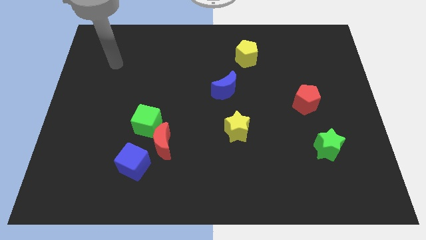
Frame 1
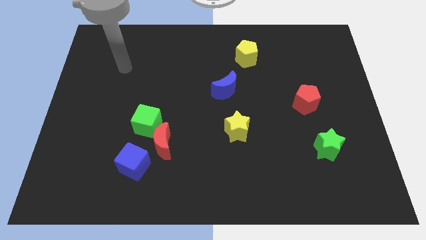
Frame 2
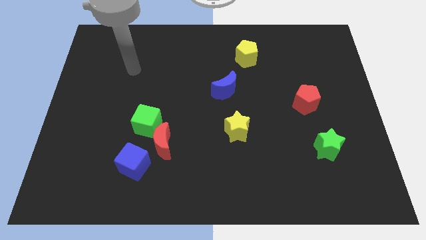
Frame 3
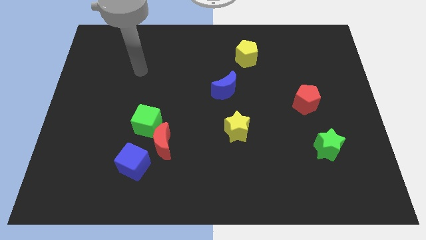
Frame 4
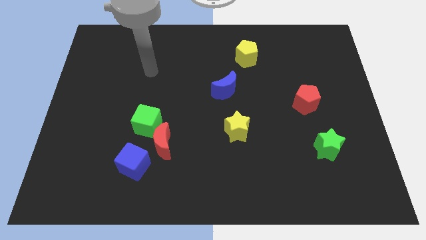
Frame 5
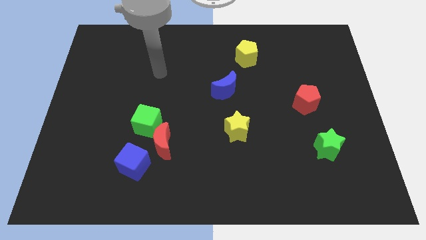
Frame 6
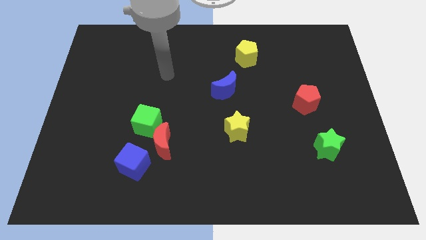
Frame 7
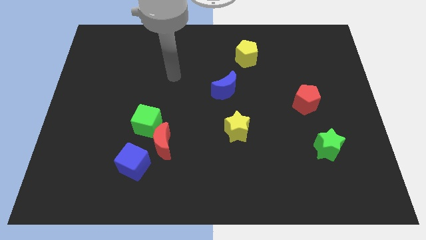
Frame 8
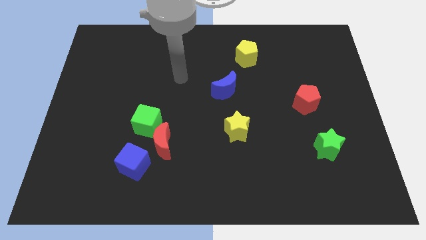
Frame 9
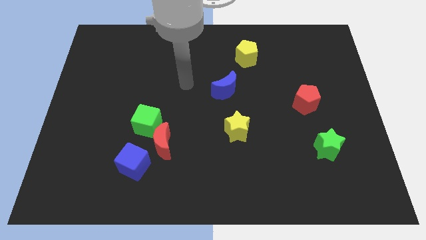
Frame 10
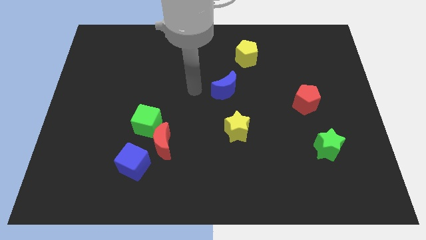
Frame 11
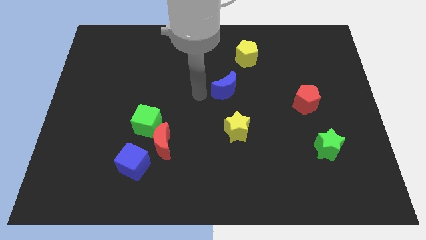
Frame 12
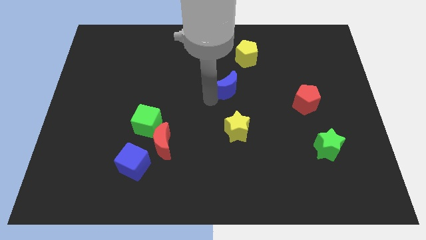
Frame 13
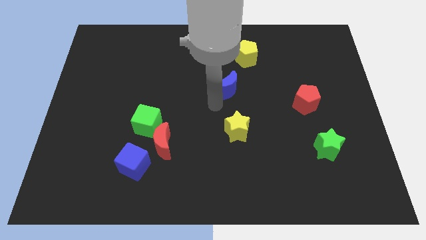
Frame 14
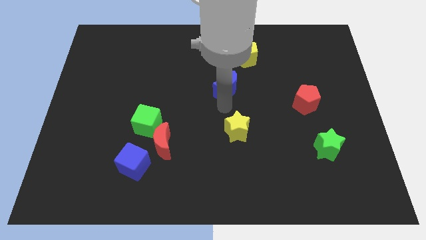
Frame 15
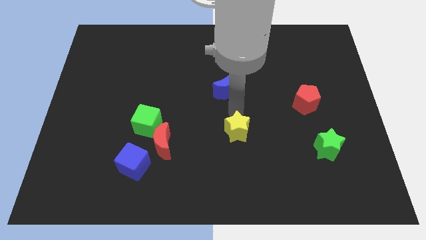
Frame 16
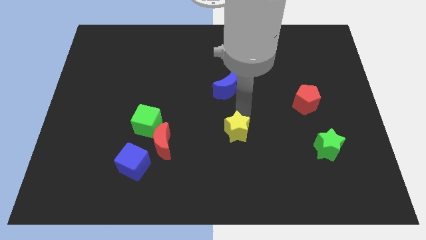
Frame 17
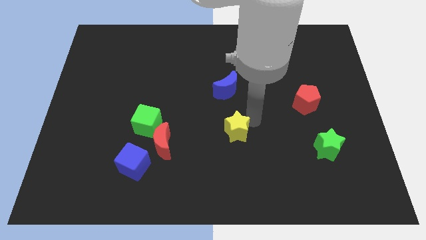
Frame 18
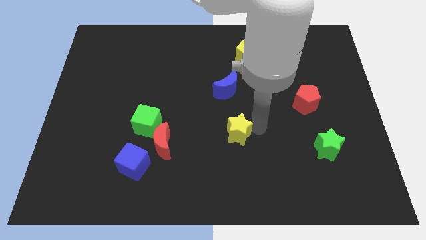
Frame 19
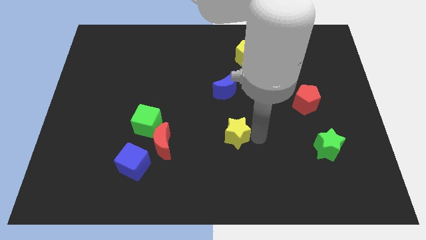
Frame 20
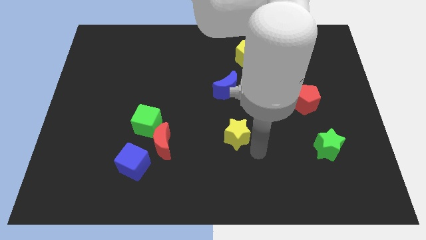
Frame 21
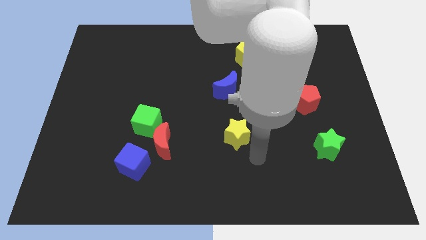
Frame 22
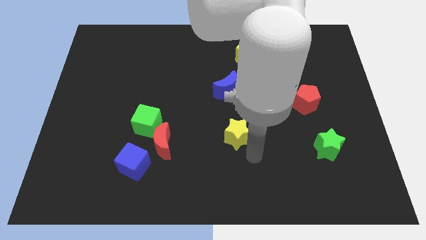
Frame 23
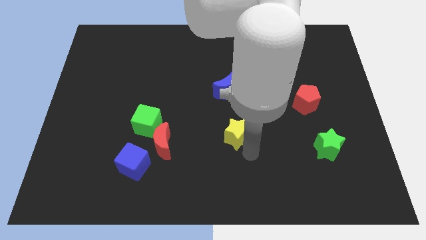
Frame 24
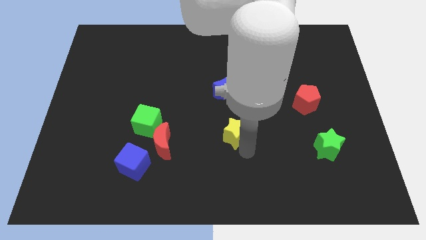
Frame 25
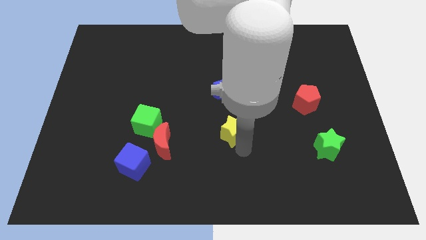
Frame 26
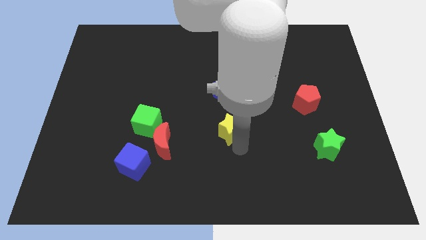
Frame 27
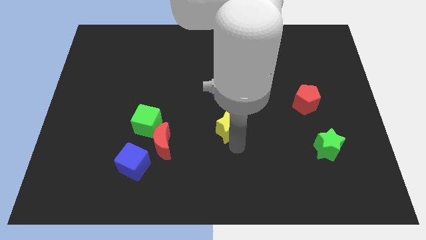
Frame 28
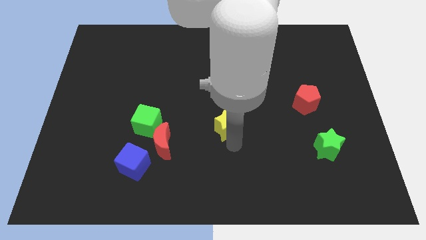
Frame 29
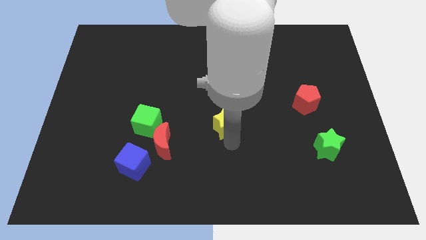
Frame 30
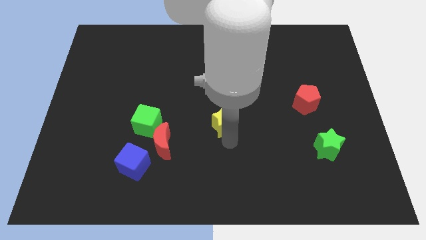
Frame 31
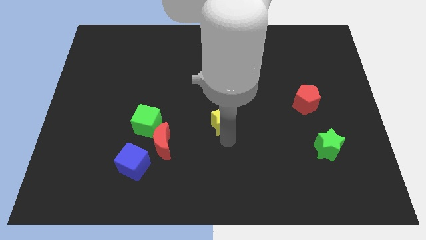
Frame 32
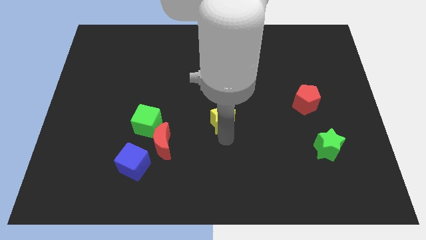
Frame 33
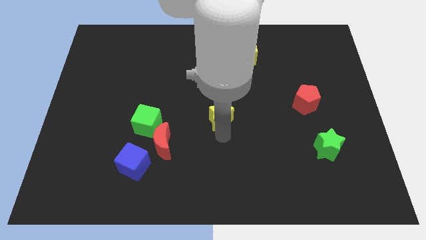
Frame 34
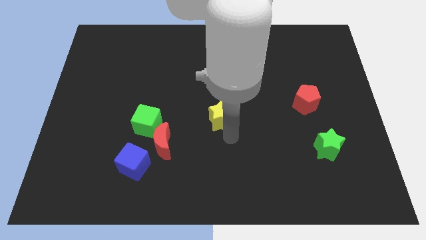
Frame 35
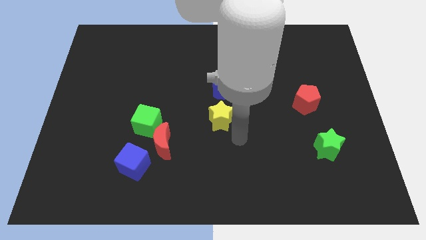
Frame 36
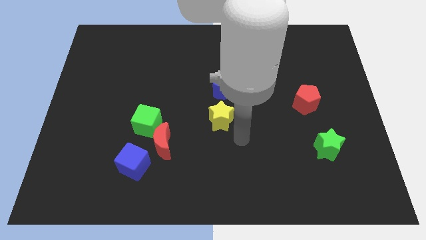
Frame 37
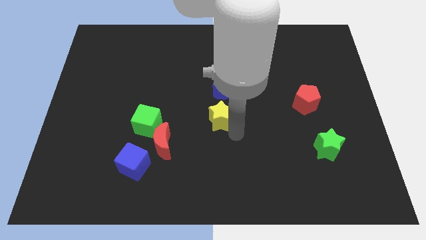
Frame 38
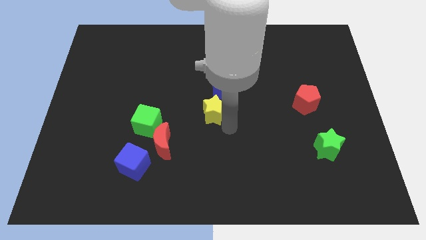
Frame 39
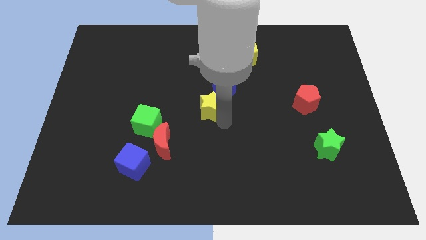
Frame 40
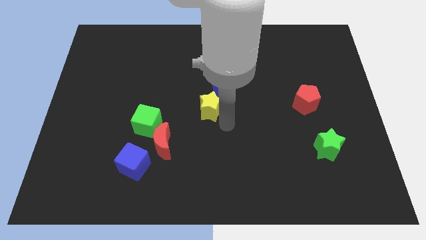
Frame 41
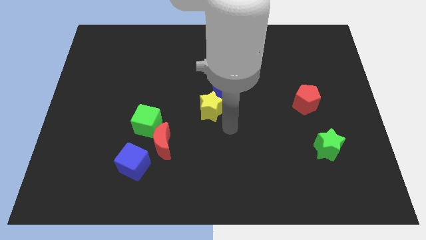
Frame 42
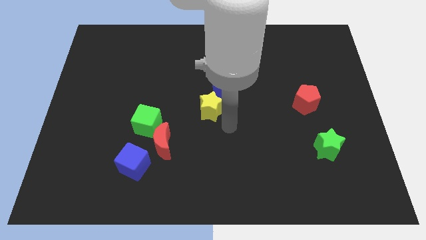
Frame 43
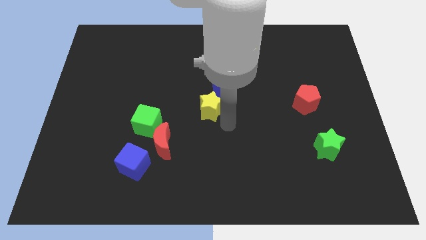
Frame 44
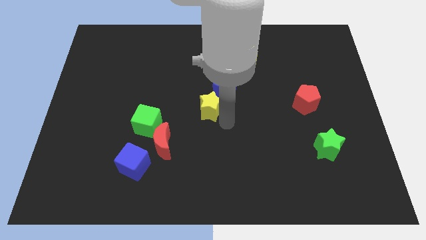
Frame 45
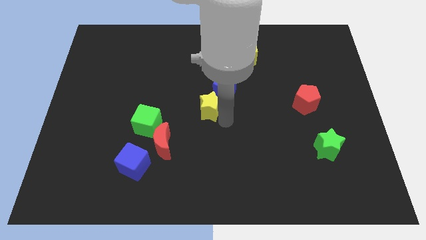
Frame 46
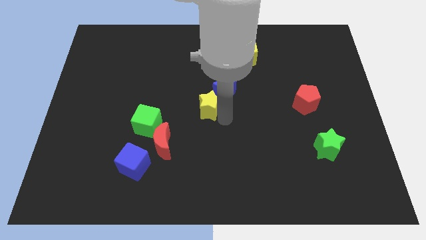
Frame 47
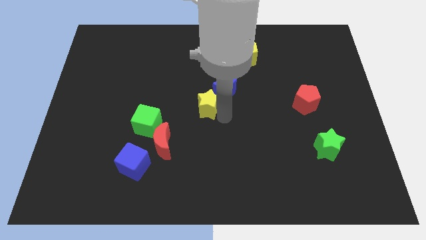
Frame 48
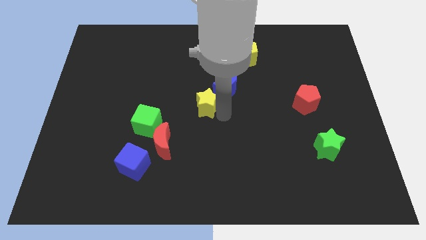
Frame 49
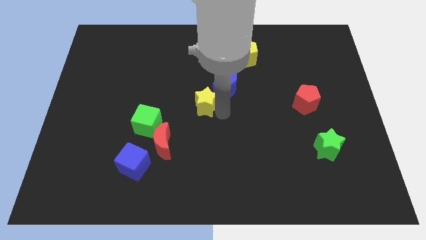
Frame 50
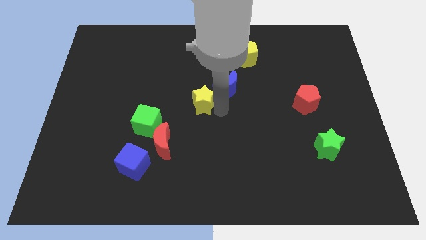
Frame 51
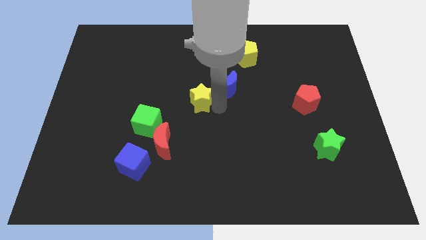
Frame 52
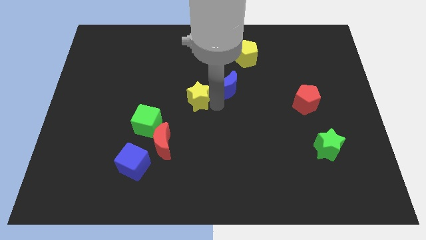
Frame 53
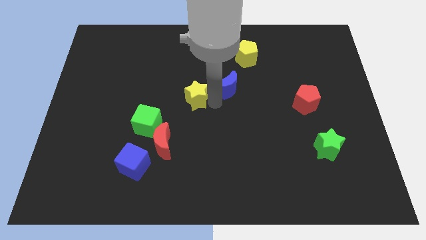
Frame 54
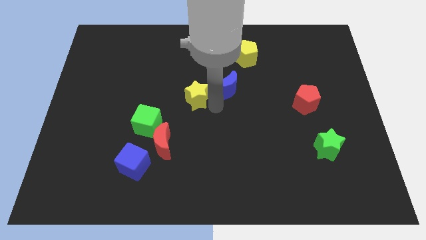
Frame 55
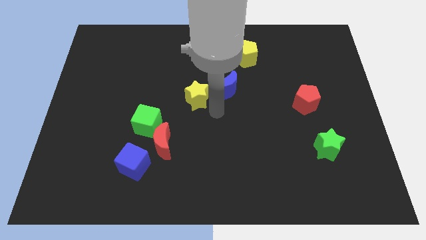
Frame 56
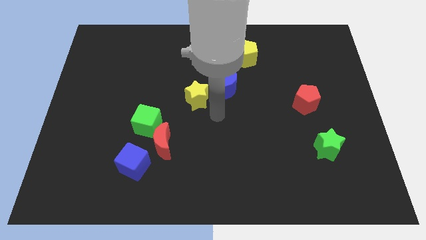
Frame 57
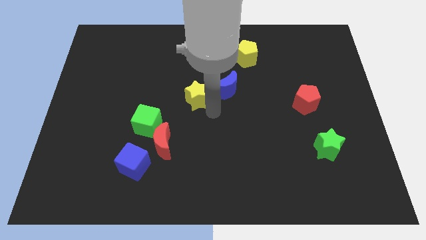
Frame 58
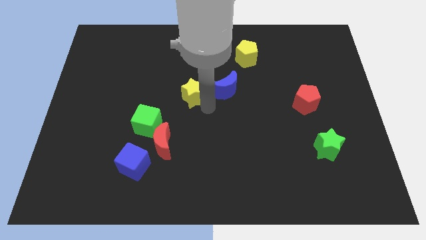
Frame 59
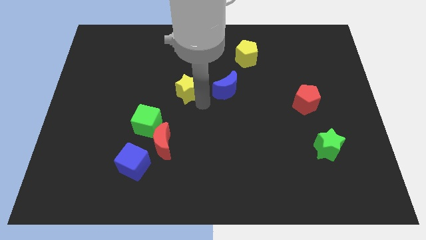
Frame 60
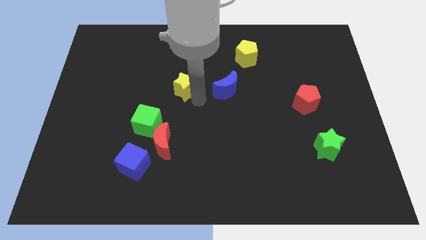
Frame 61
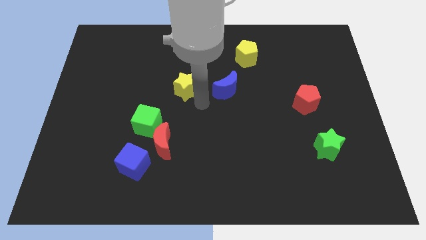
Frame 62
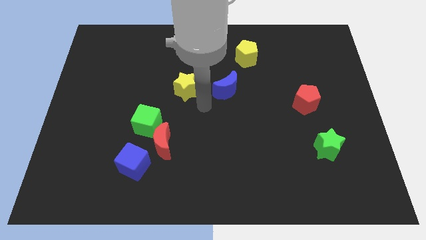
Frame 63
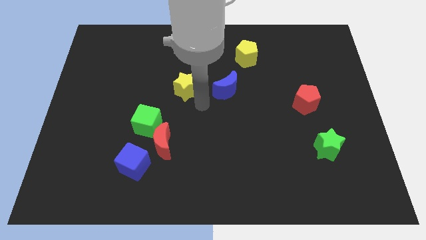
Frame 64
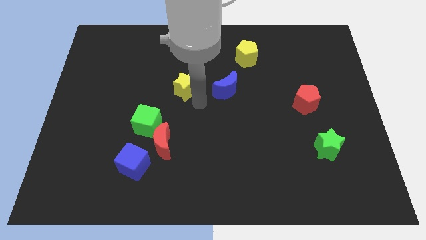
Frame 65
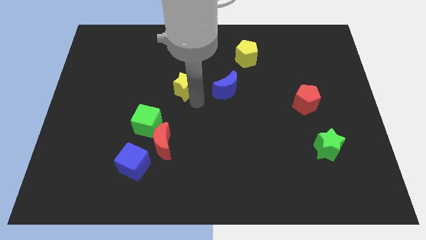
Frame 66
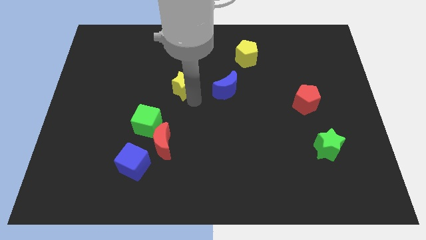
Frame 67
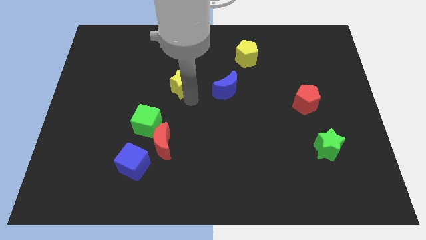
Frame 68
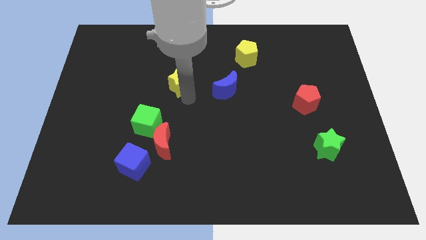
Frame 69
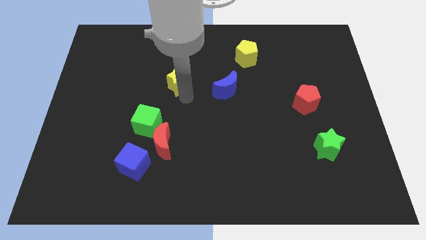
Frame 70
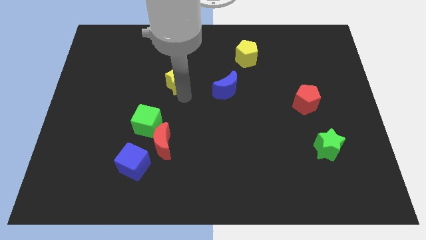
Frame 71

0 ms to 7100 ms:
slide the yellow star upwards and left diagonally

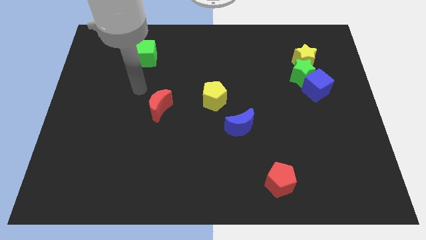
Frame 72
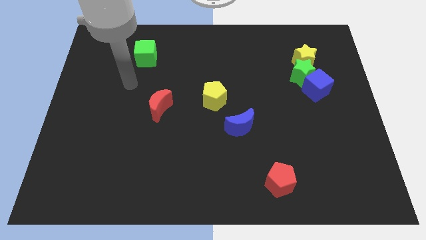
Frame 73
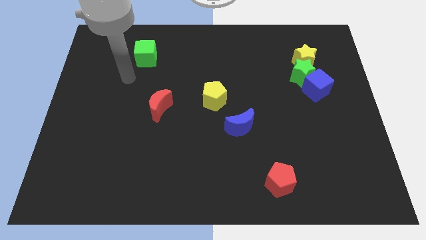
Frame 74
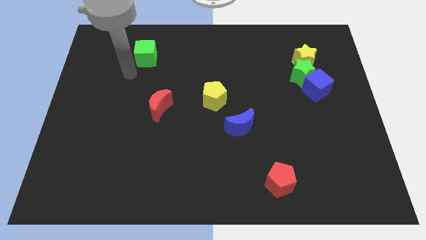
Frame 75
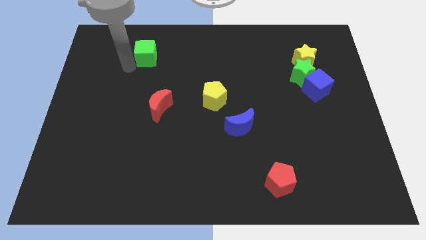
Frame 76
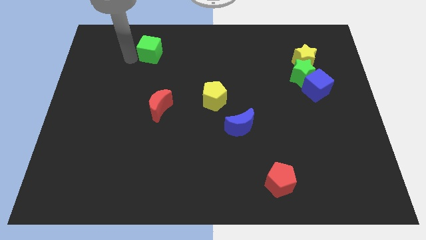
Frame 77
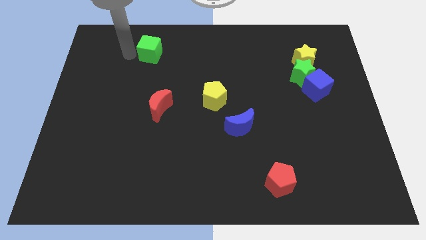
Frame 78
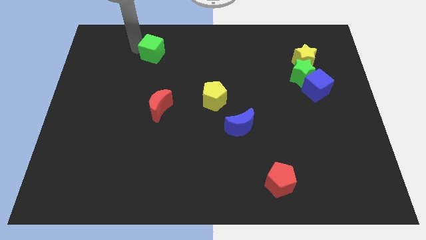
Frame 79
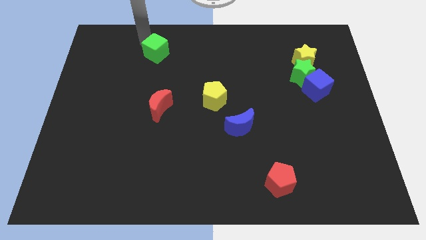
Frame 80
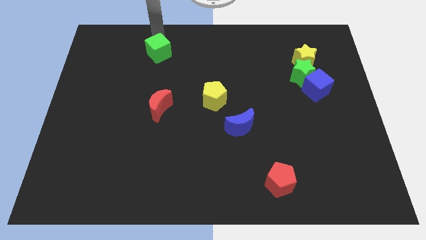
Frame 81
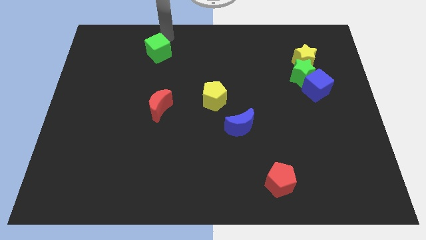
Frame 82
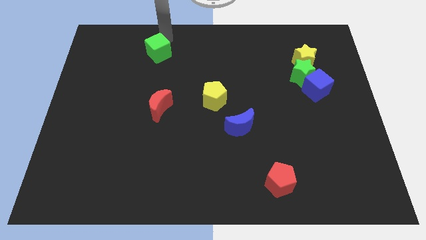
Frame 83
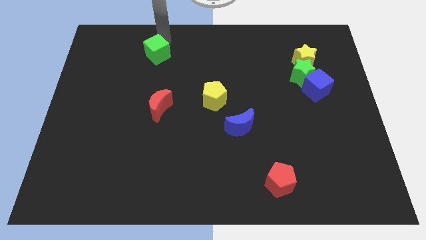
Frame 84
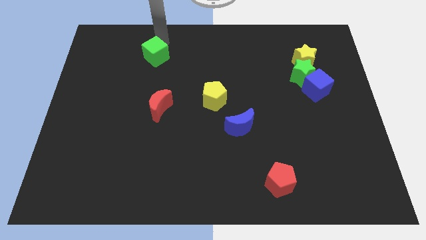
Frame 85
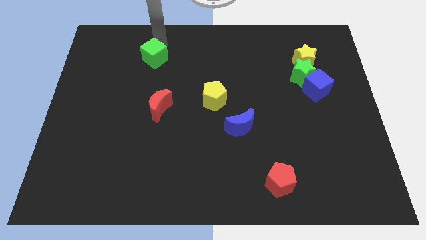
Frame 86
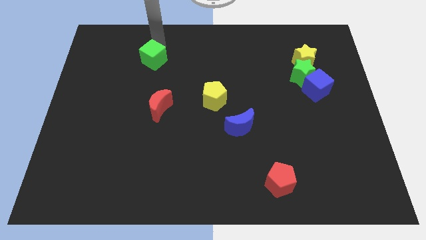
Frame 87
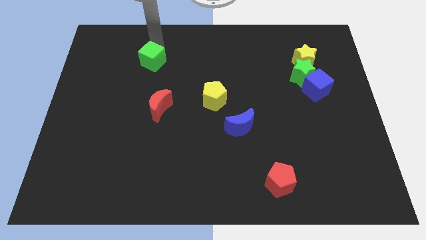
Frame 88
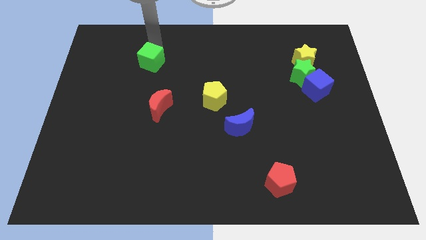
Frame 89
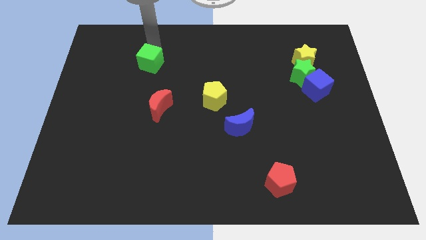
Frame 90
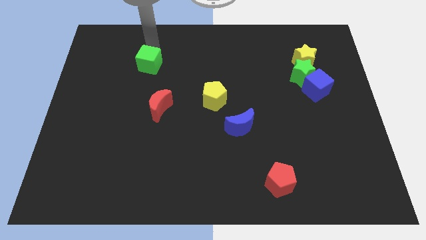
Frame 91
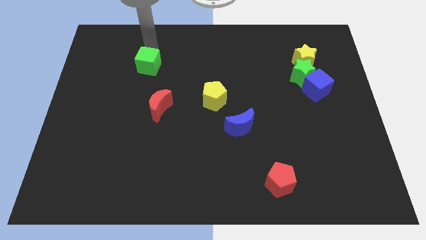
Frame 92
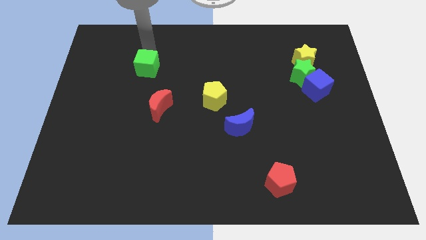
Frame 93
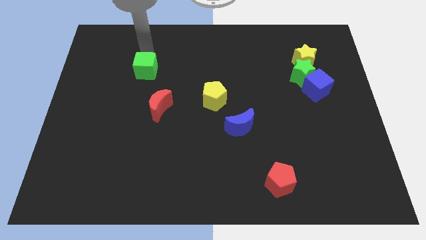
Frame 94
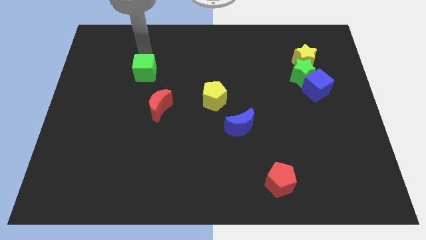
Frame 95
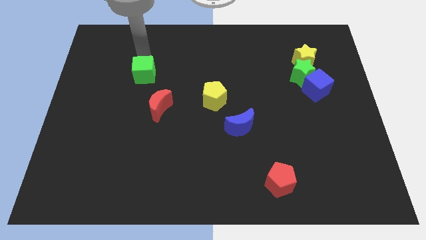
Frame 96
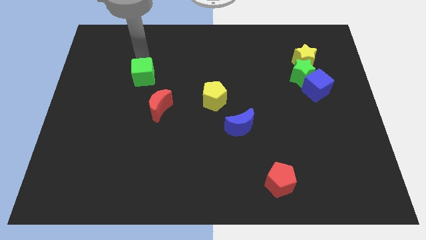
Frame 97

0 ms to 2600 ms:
move the green cube slightly down
